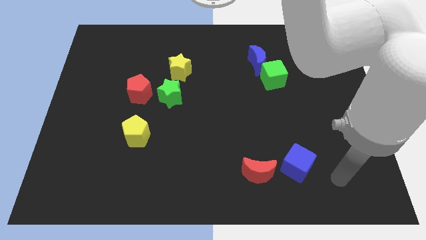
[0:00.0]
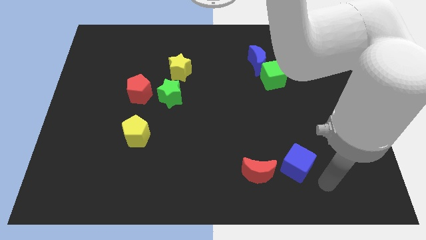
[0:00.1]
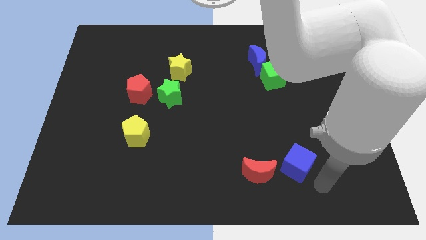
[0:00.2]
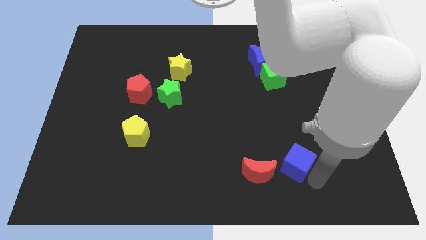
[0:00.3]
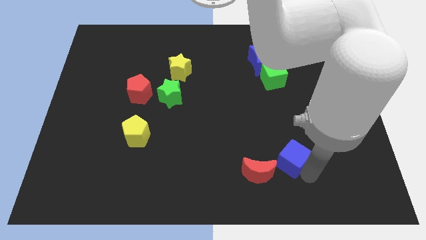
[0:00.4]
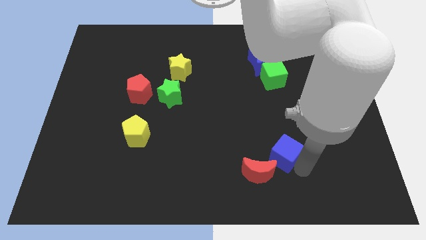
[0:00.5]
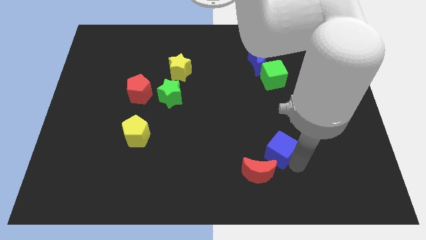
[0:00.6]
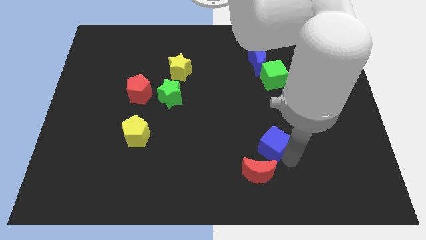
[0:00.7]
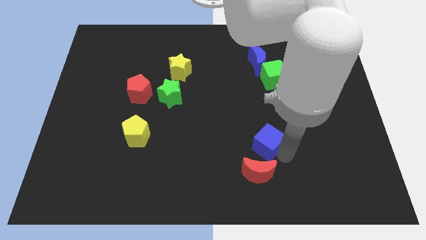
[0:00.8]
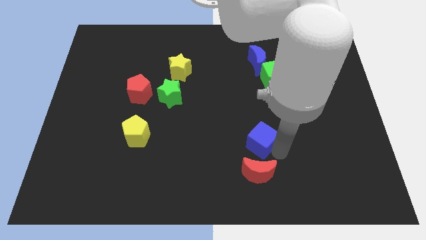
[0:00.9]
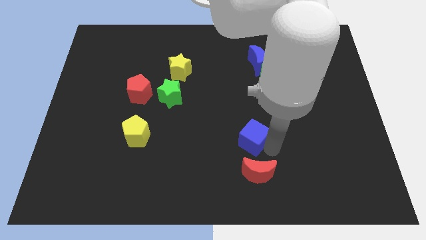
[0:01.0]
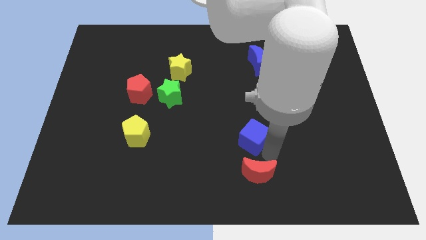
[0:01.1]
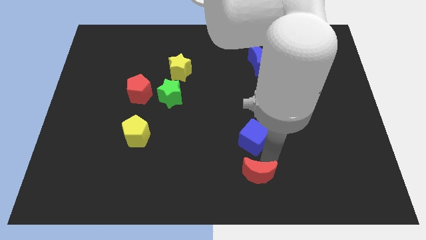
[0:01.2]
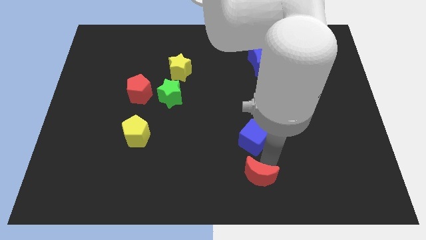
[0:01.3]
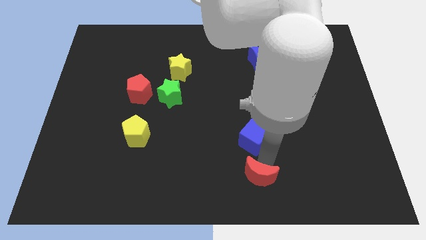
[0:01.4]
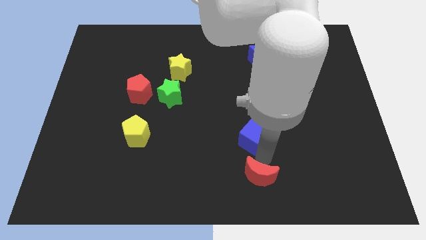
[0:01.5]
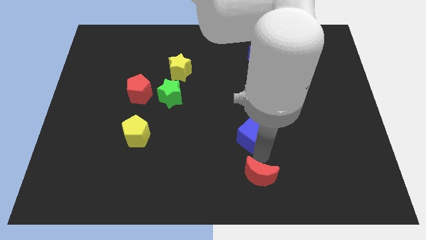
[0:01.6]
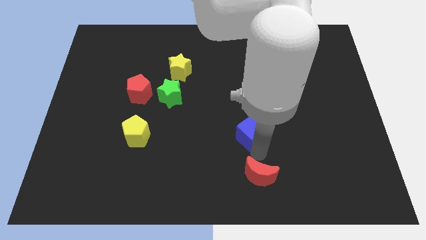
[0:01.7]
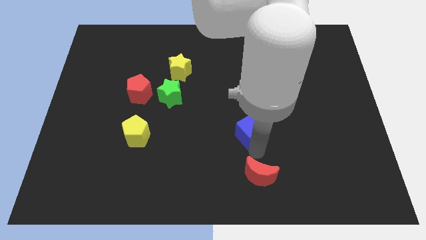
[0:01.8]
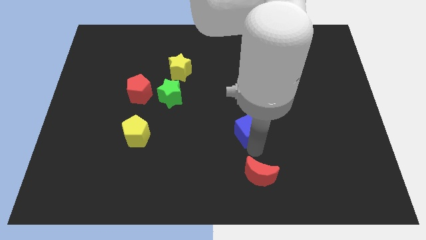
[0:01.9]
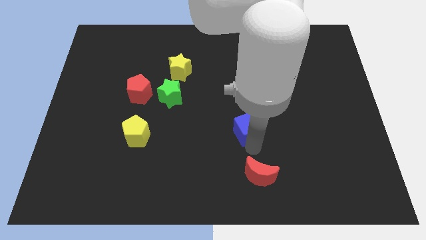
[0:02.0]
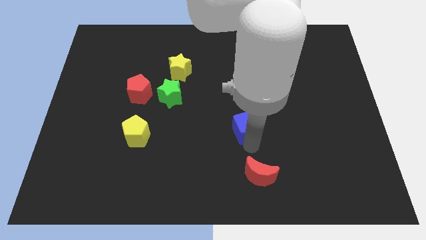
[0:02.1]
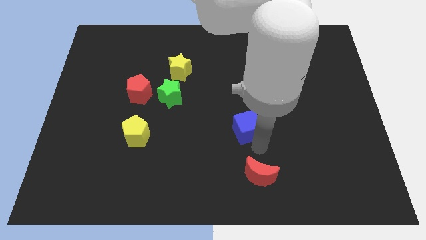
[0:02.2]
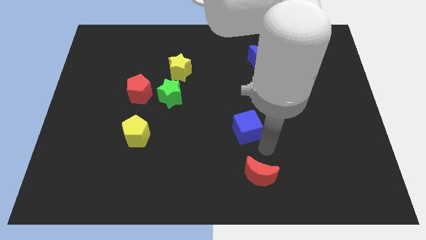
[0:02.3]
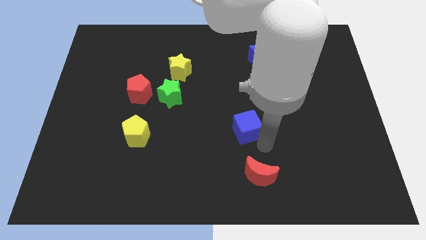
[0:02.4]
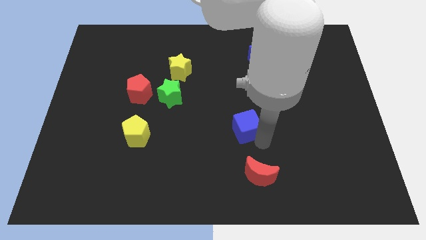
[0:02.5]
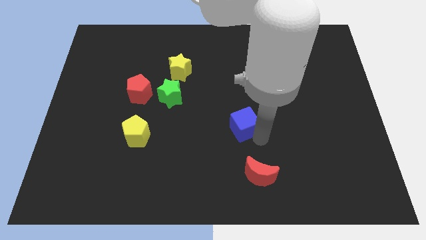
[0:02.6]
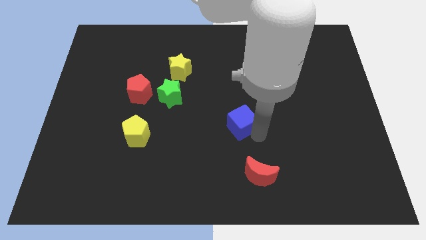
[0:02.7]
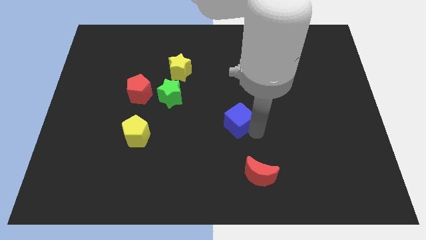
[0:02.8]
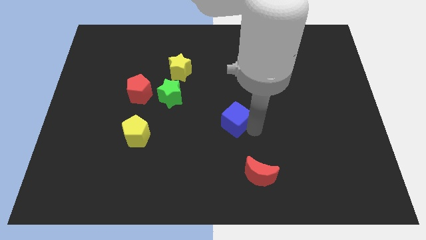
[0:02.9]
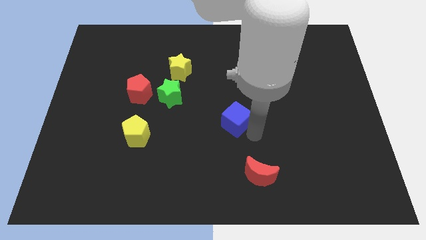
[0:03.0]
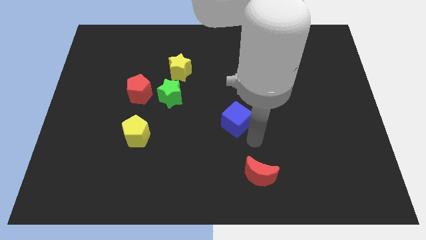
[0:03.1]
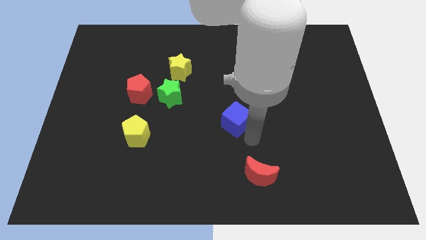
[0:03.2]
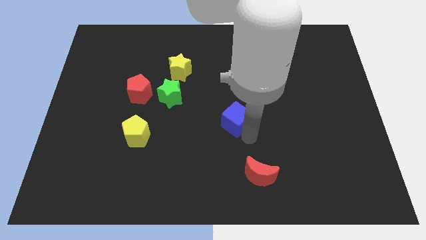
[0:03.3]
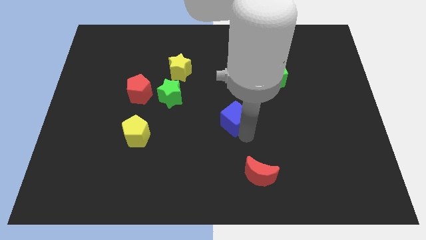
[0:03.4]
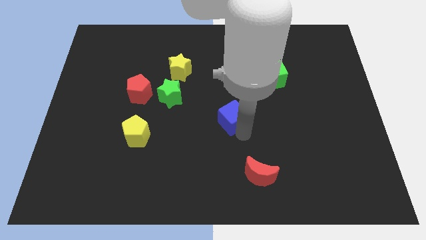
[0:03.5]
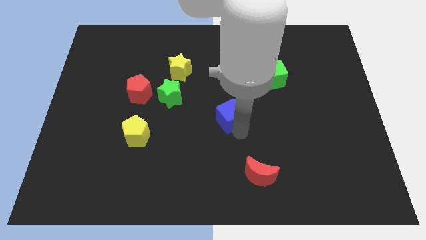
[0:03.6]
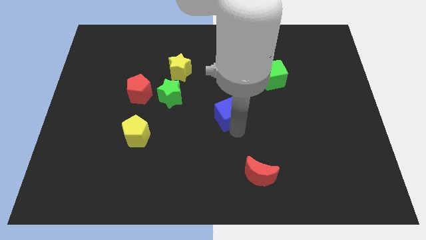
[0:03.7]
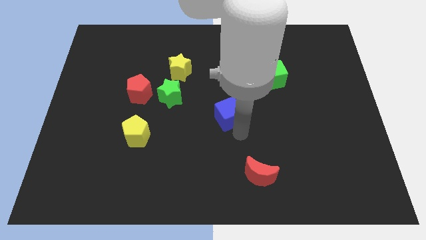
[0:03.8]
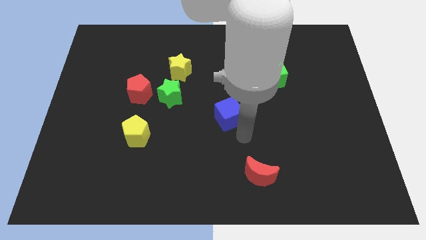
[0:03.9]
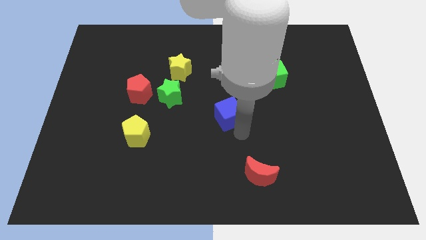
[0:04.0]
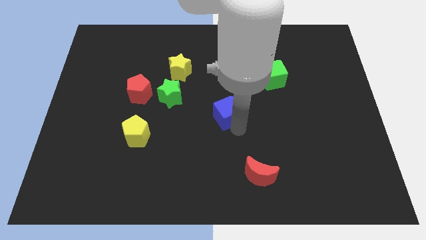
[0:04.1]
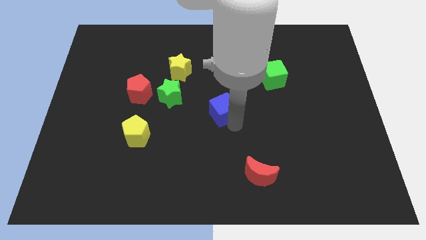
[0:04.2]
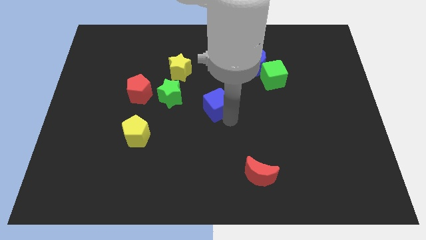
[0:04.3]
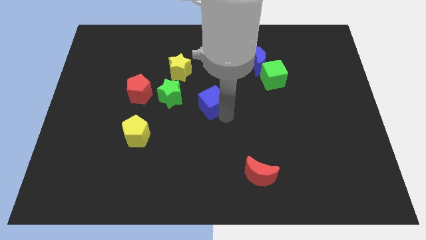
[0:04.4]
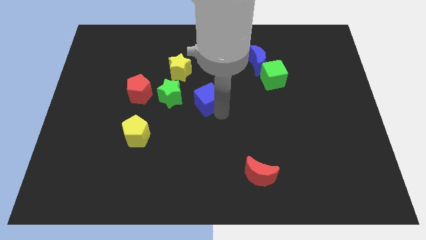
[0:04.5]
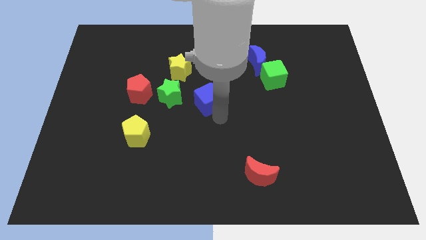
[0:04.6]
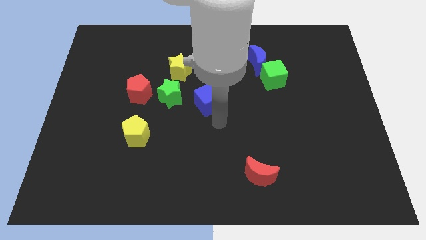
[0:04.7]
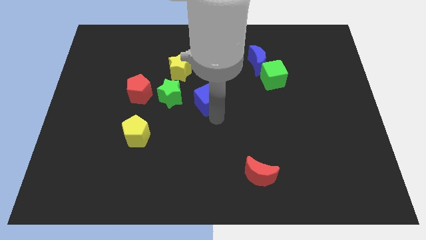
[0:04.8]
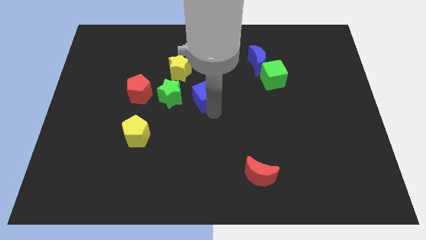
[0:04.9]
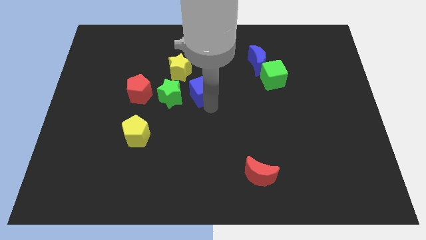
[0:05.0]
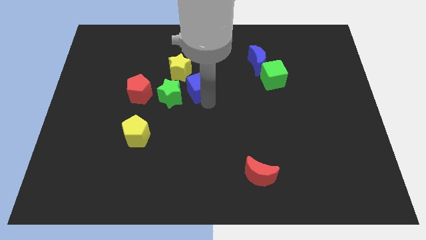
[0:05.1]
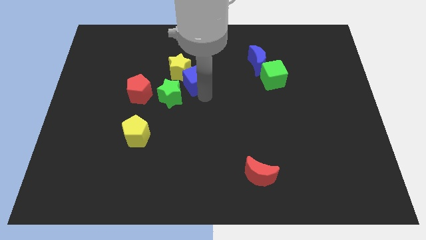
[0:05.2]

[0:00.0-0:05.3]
push the blue cube towards the yellow star

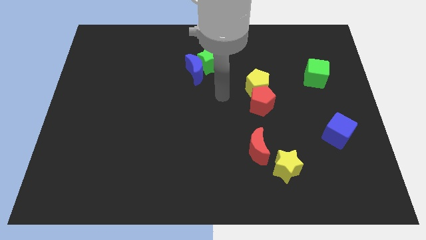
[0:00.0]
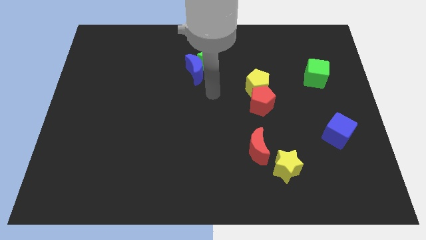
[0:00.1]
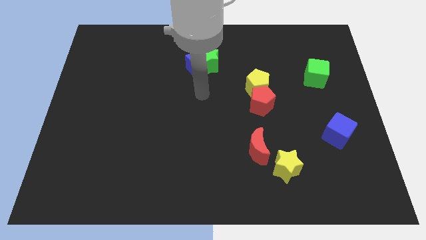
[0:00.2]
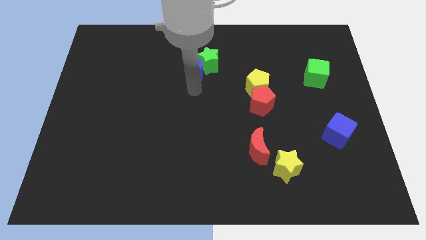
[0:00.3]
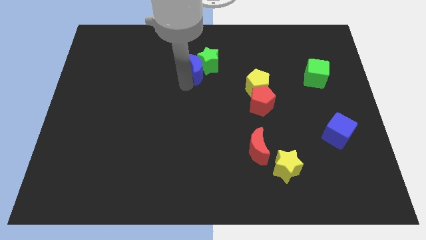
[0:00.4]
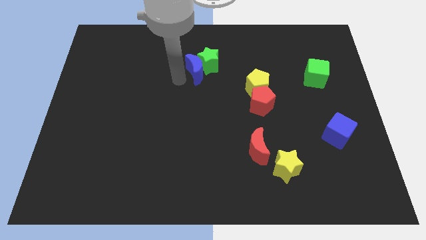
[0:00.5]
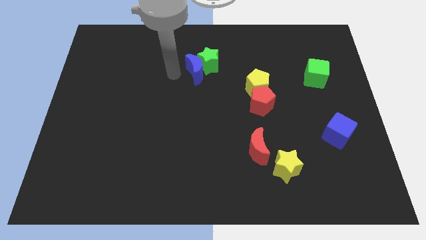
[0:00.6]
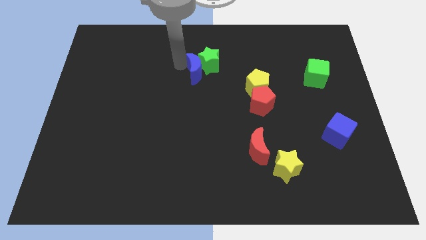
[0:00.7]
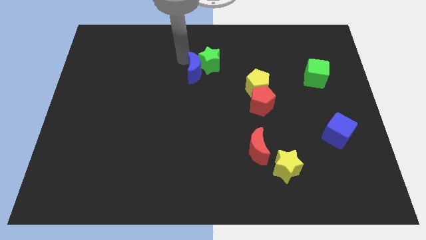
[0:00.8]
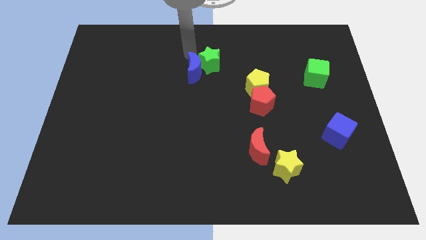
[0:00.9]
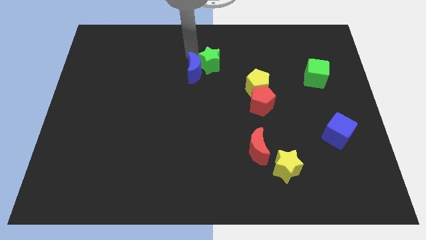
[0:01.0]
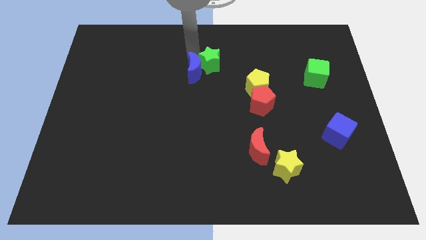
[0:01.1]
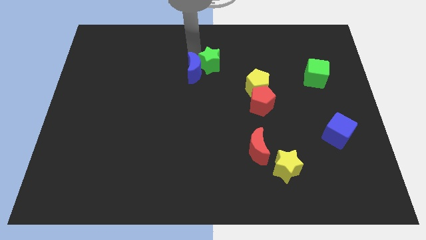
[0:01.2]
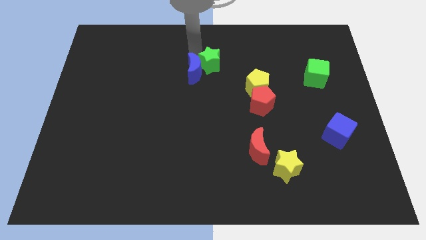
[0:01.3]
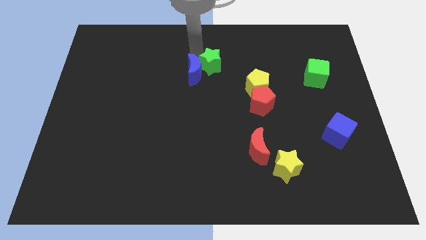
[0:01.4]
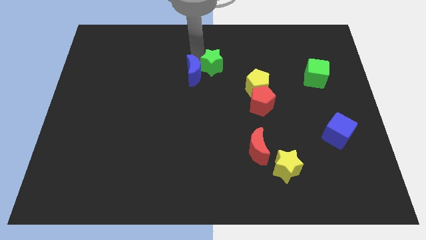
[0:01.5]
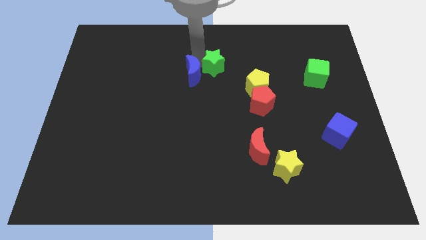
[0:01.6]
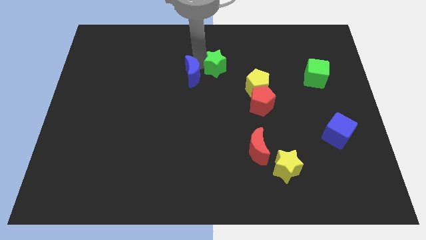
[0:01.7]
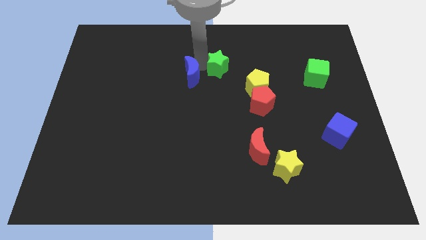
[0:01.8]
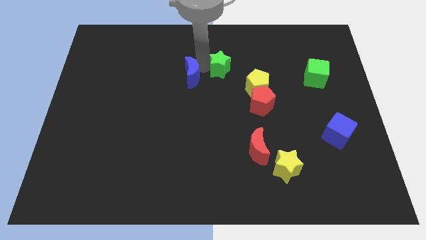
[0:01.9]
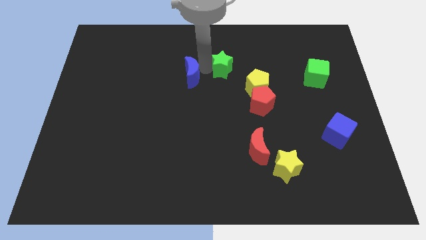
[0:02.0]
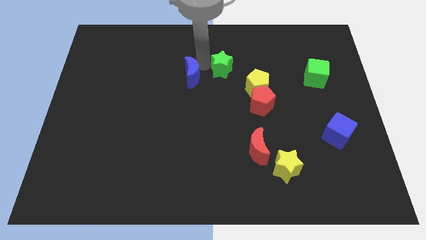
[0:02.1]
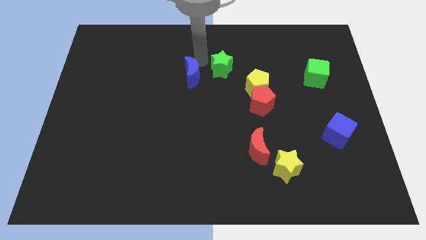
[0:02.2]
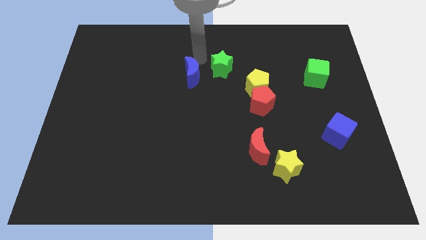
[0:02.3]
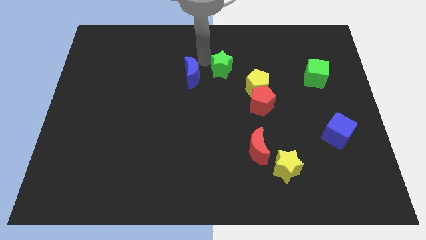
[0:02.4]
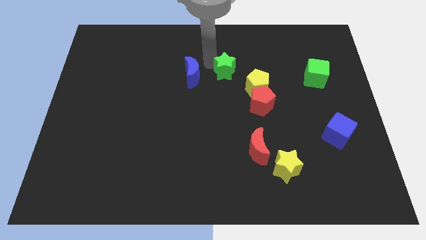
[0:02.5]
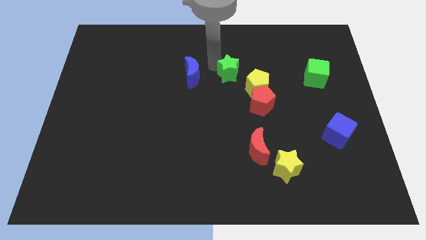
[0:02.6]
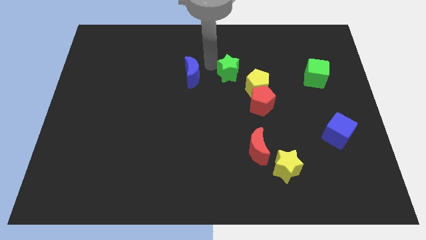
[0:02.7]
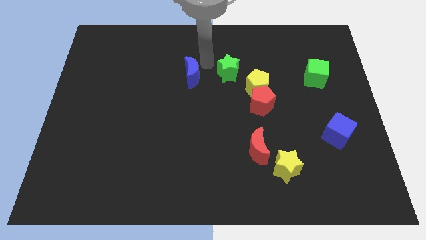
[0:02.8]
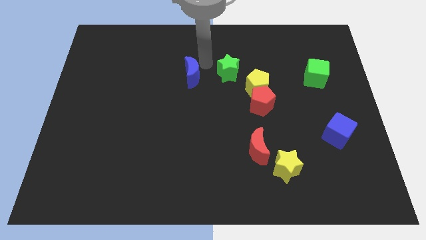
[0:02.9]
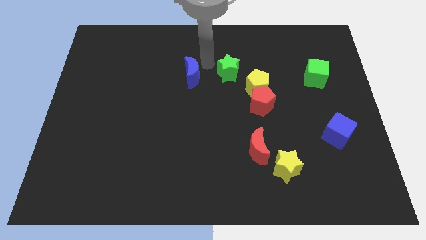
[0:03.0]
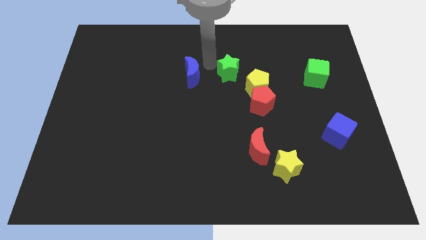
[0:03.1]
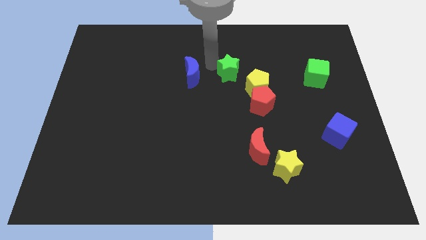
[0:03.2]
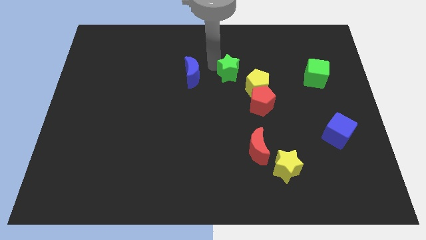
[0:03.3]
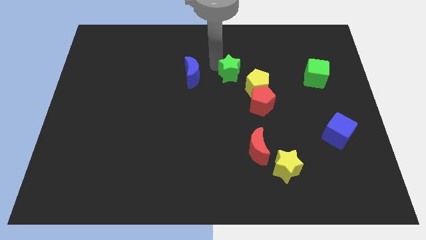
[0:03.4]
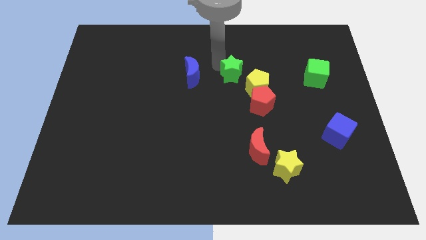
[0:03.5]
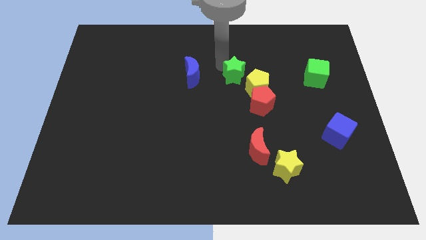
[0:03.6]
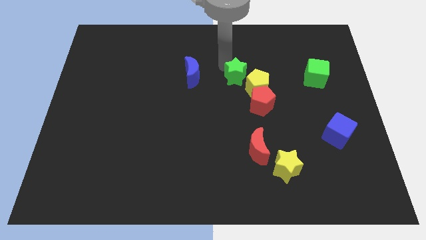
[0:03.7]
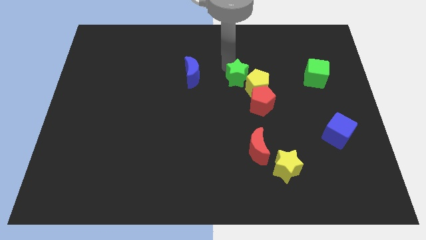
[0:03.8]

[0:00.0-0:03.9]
slide the green star close to the yellow pentagon
